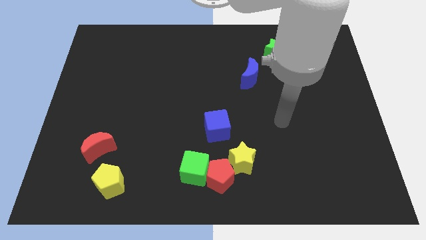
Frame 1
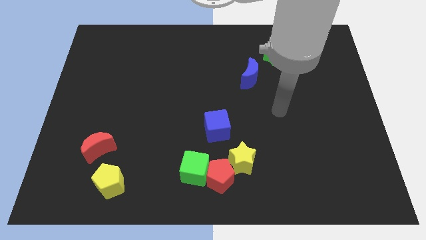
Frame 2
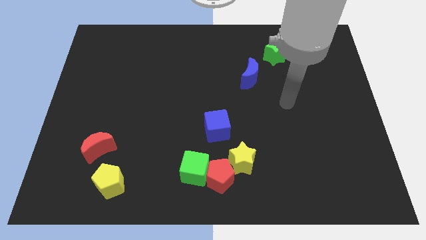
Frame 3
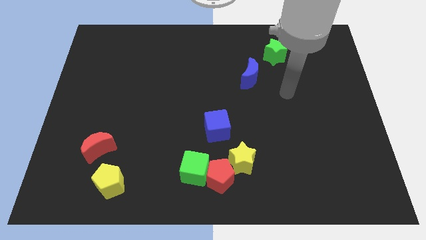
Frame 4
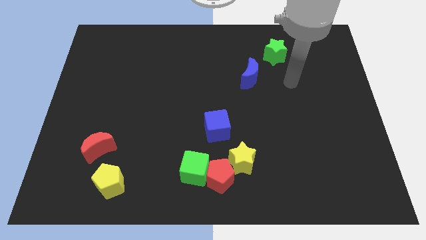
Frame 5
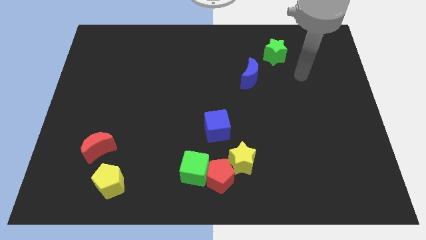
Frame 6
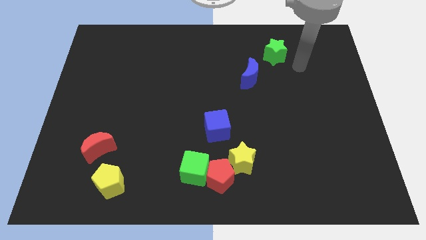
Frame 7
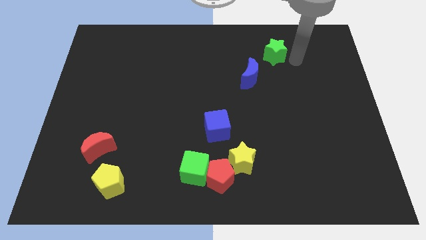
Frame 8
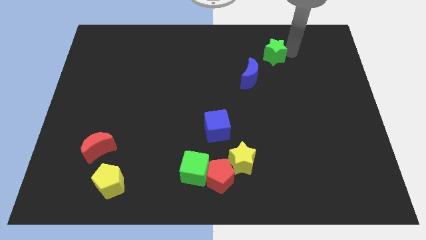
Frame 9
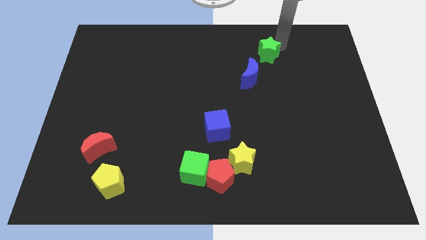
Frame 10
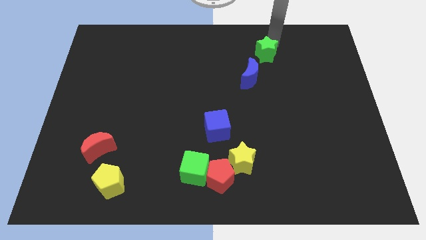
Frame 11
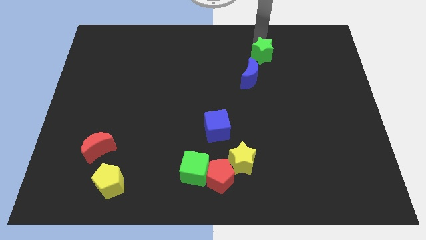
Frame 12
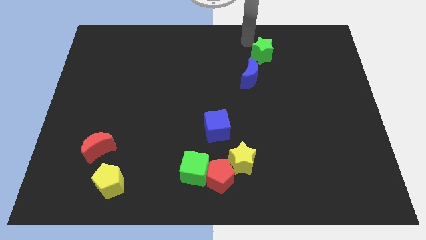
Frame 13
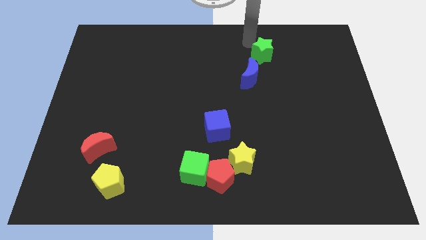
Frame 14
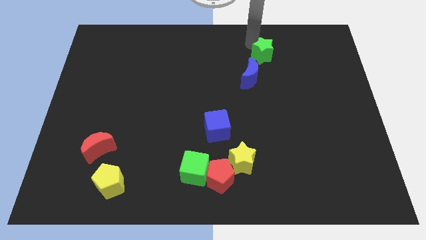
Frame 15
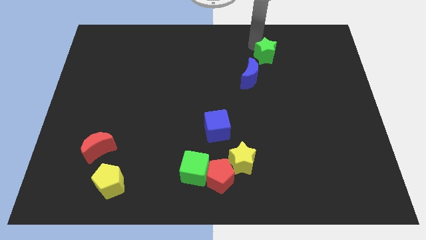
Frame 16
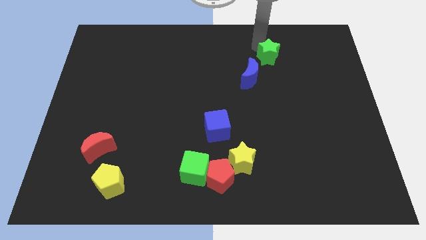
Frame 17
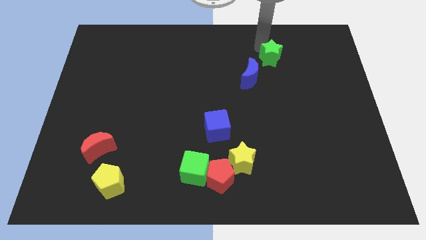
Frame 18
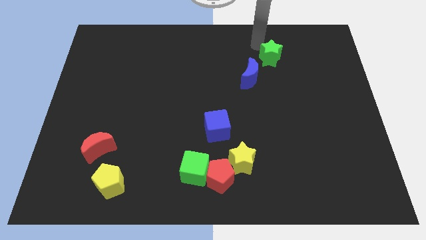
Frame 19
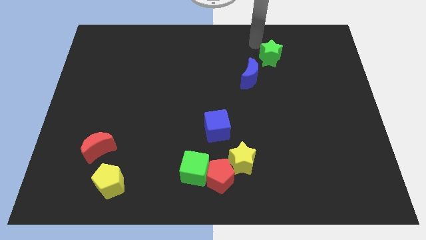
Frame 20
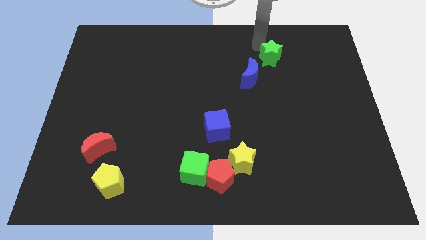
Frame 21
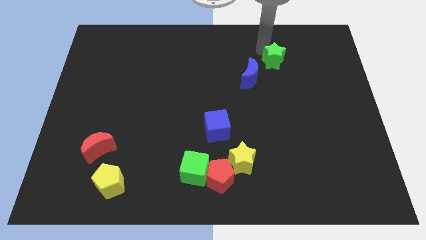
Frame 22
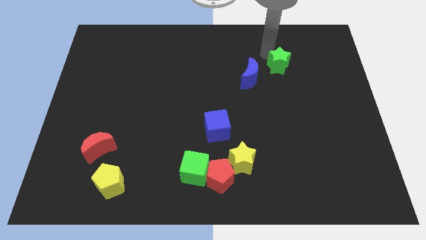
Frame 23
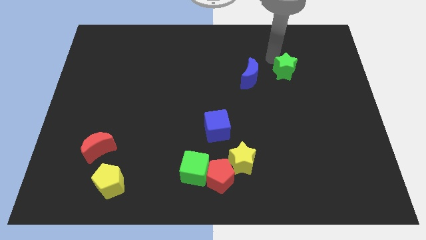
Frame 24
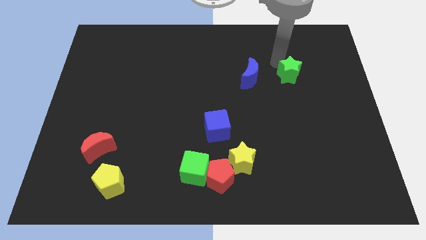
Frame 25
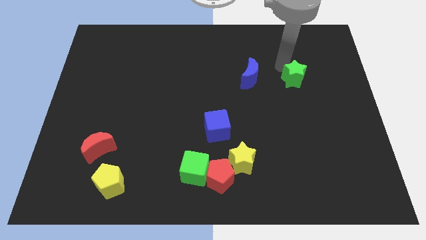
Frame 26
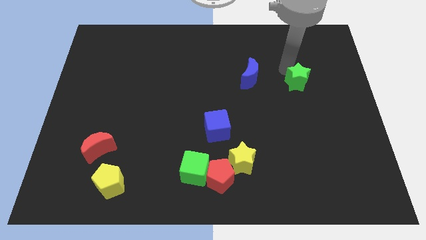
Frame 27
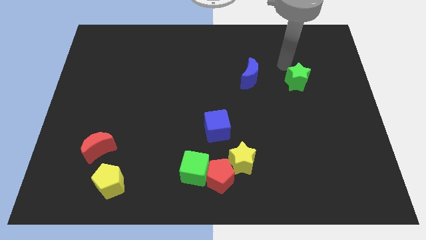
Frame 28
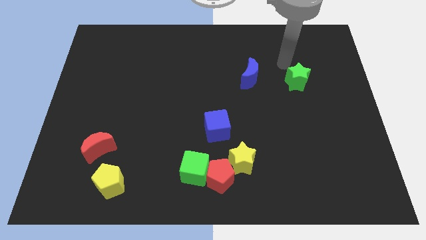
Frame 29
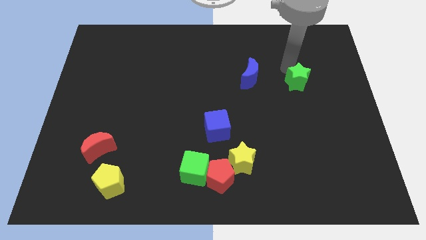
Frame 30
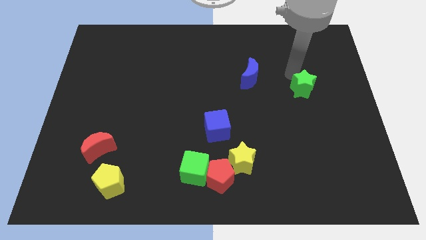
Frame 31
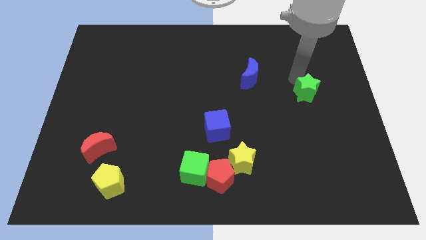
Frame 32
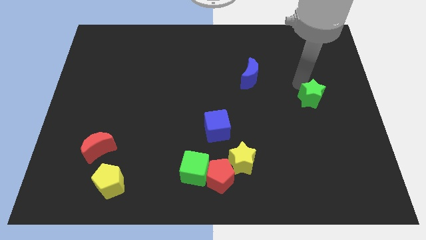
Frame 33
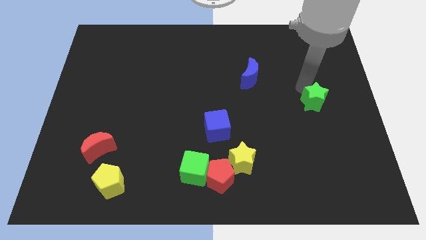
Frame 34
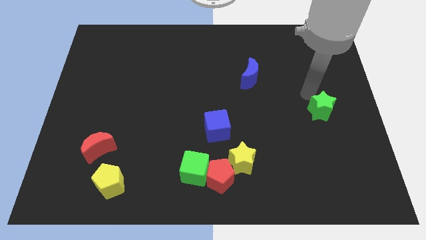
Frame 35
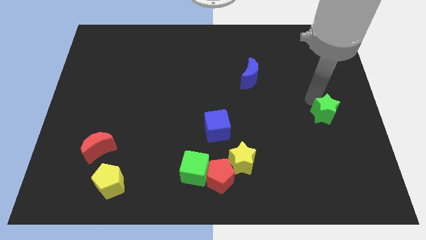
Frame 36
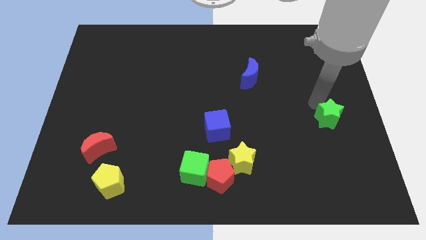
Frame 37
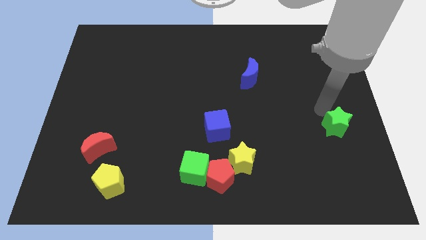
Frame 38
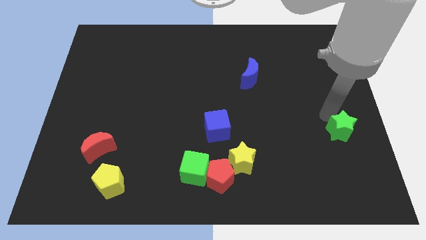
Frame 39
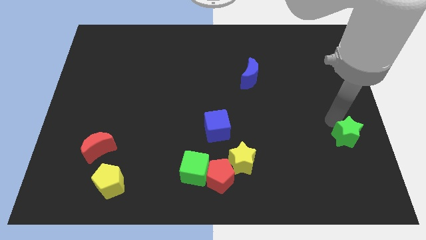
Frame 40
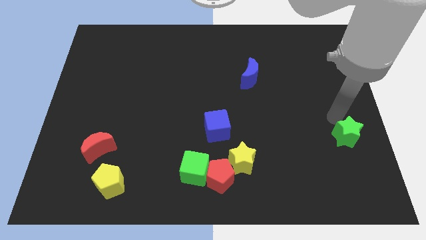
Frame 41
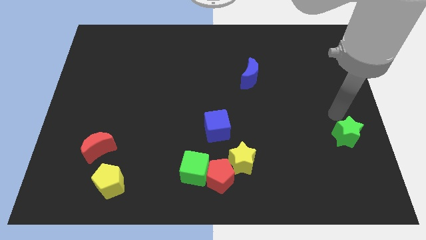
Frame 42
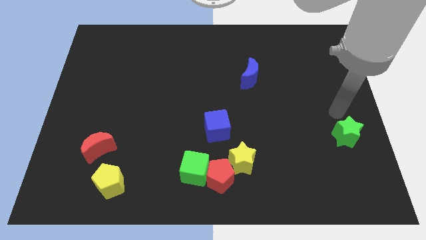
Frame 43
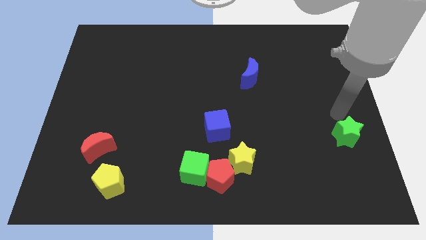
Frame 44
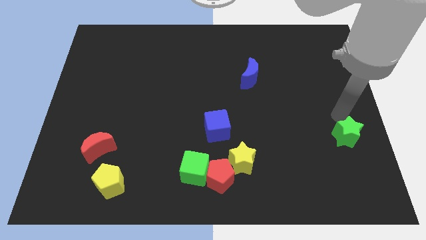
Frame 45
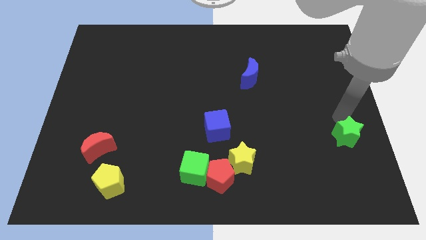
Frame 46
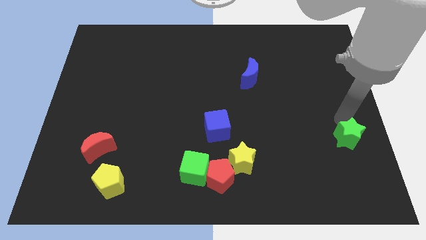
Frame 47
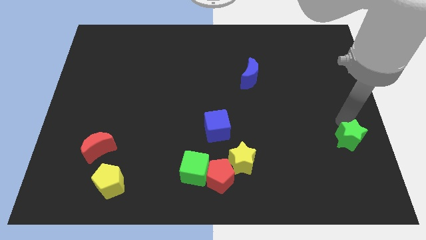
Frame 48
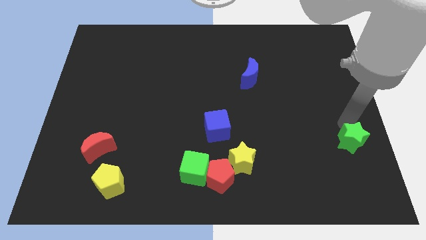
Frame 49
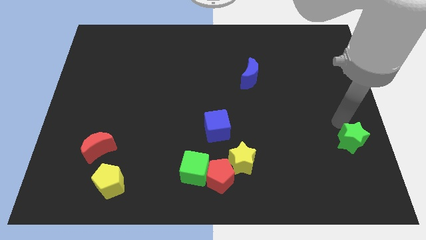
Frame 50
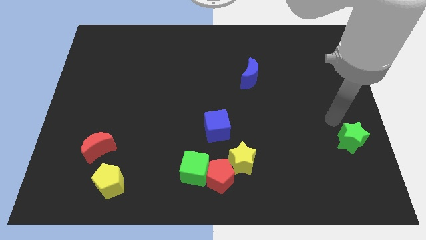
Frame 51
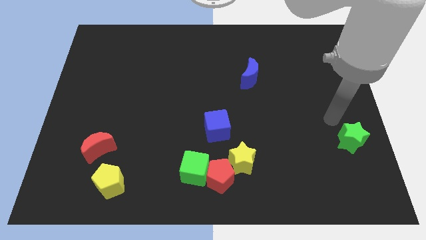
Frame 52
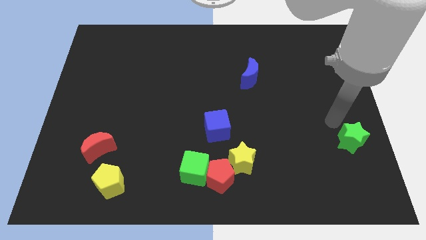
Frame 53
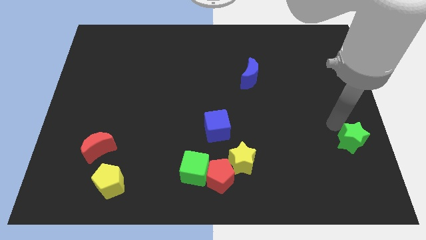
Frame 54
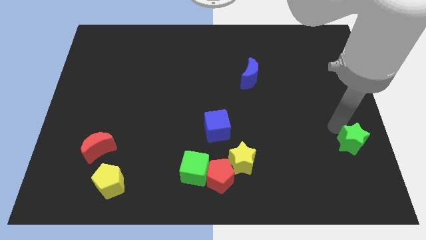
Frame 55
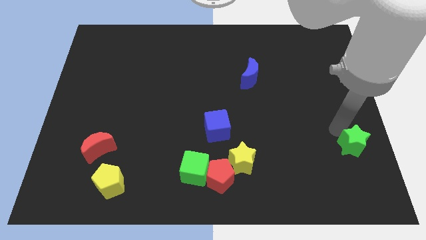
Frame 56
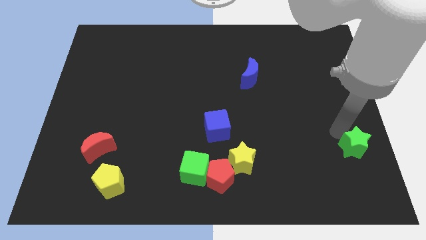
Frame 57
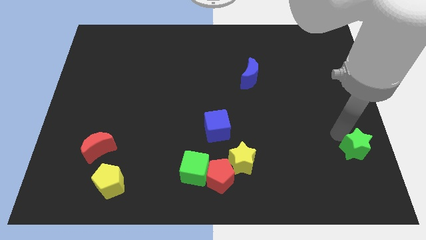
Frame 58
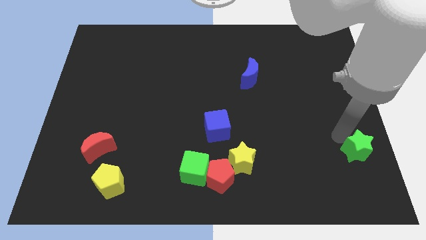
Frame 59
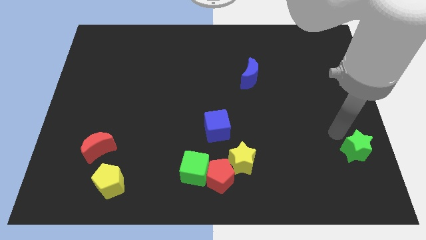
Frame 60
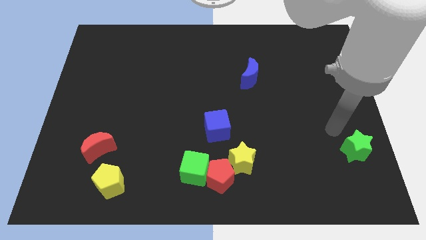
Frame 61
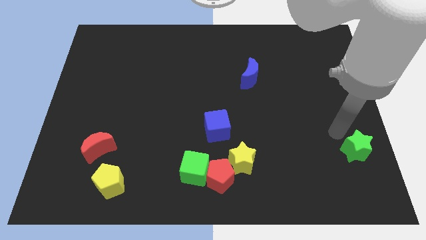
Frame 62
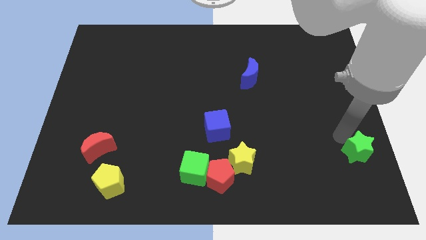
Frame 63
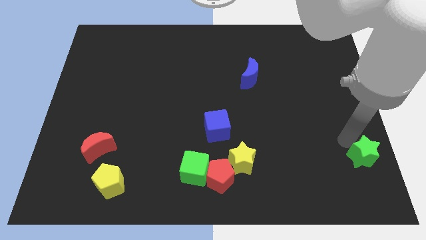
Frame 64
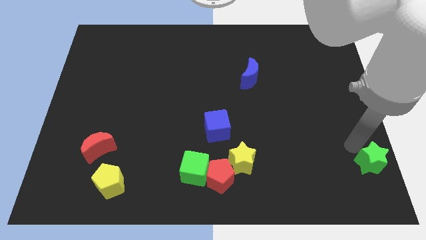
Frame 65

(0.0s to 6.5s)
push the green star to the lower right corner
